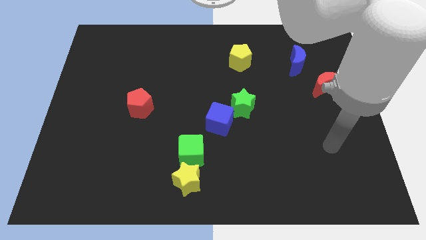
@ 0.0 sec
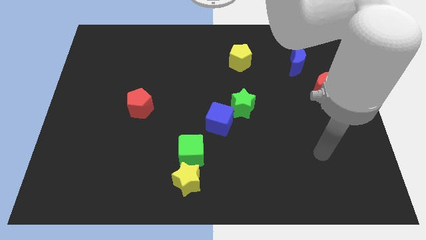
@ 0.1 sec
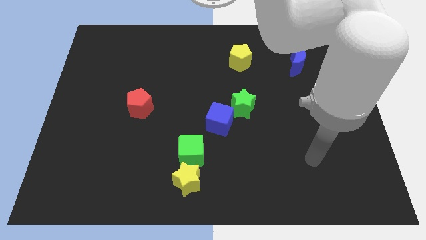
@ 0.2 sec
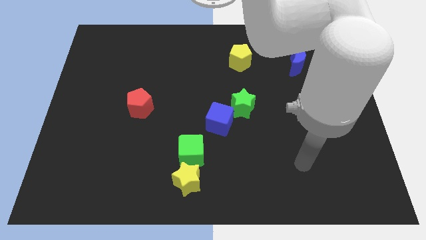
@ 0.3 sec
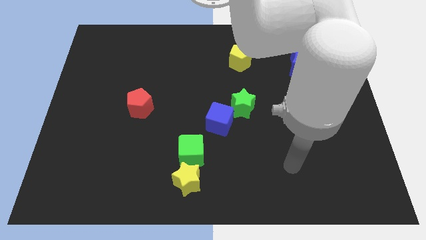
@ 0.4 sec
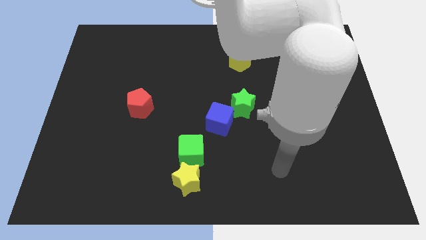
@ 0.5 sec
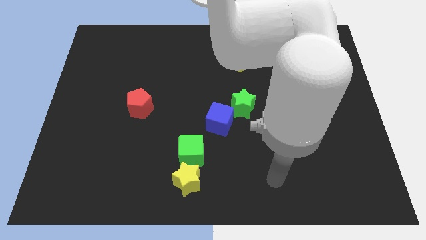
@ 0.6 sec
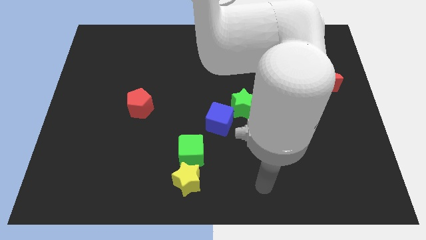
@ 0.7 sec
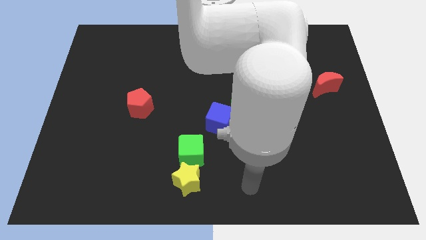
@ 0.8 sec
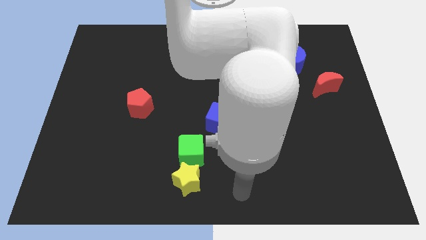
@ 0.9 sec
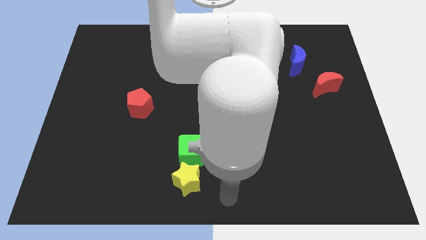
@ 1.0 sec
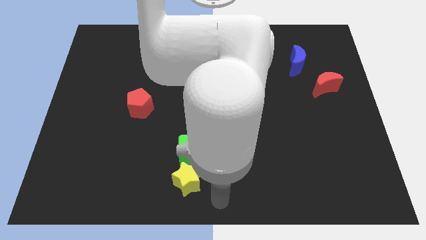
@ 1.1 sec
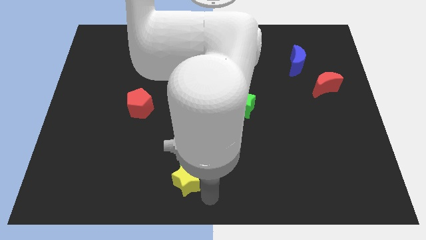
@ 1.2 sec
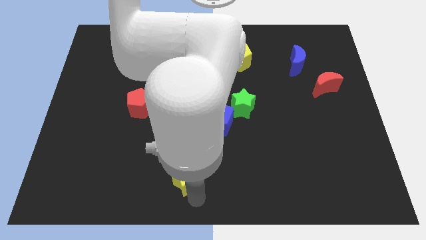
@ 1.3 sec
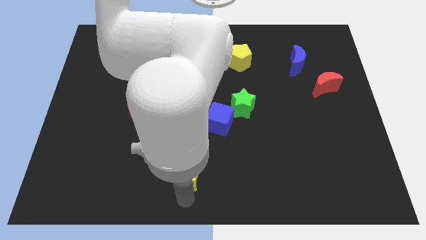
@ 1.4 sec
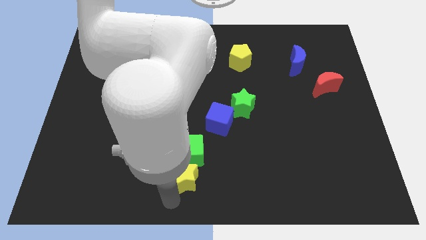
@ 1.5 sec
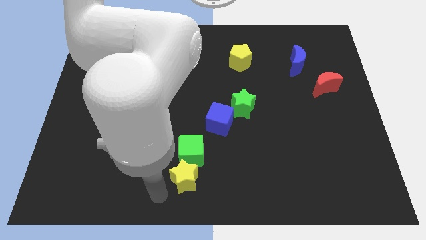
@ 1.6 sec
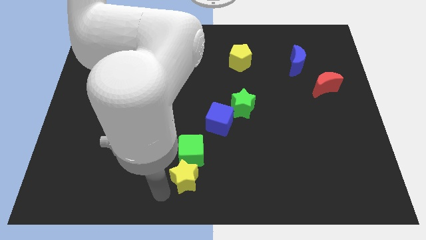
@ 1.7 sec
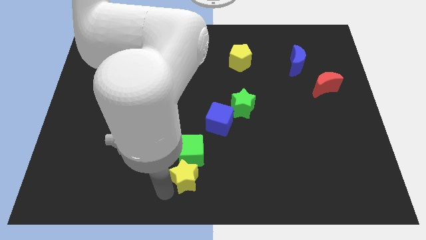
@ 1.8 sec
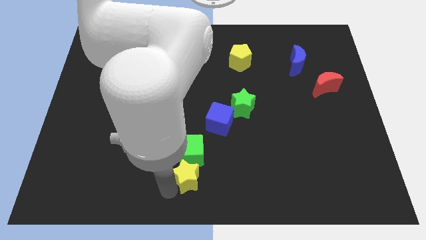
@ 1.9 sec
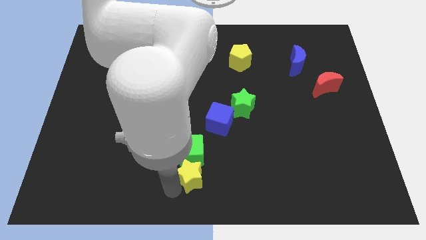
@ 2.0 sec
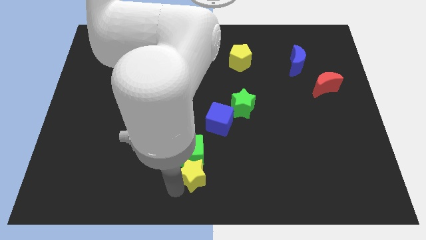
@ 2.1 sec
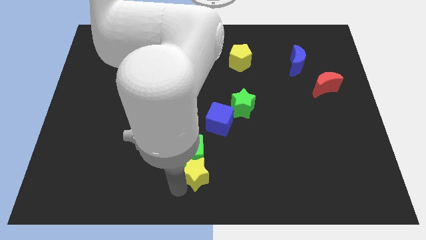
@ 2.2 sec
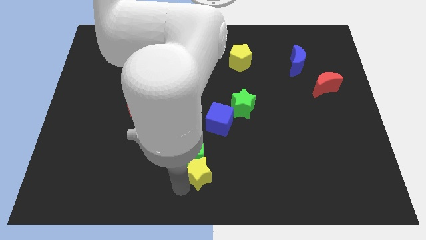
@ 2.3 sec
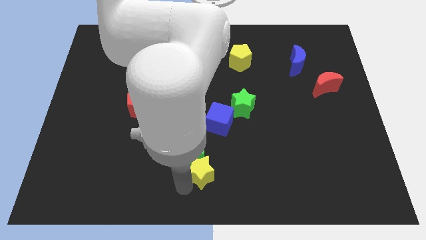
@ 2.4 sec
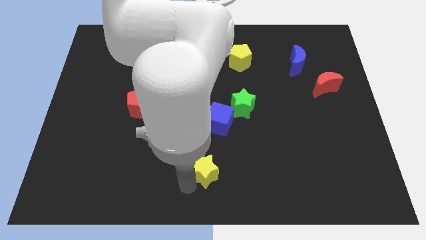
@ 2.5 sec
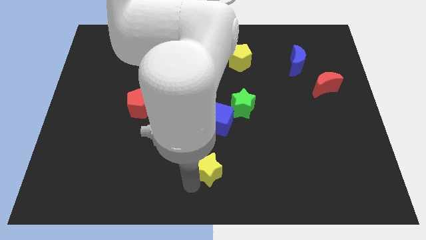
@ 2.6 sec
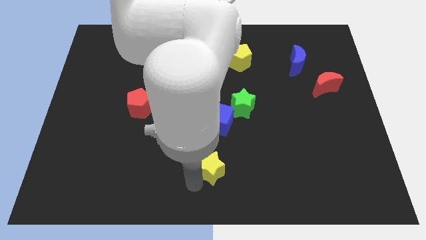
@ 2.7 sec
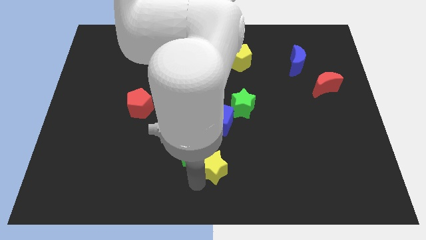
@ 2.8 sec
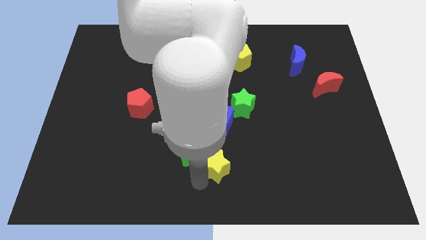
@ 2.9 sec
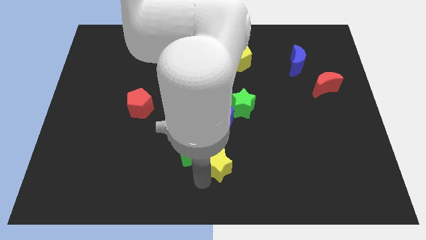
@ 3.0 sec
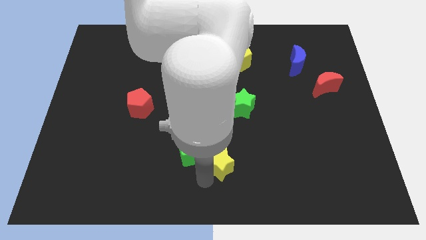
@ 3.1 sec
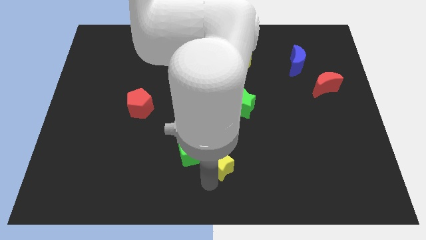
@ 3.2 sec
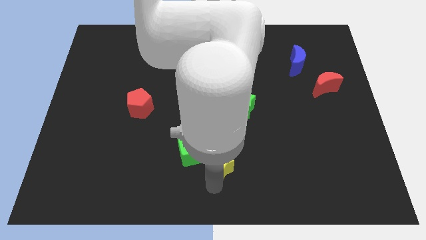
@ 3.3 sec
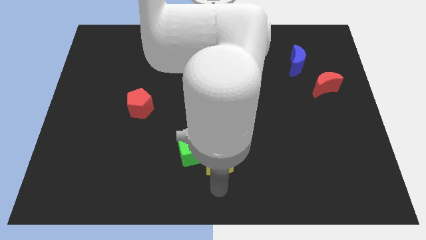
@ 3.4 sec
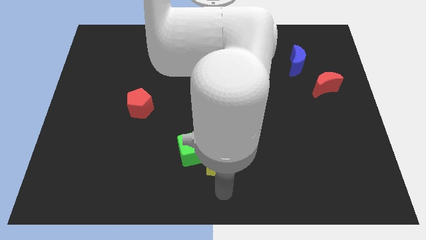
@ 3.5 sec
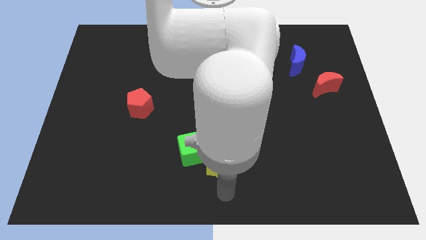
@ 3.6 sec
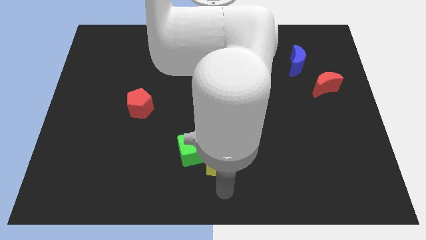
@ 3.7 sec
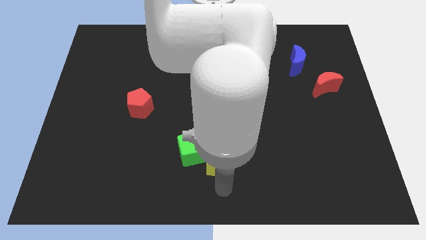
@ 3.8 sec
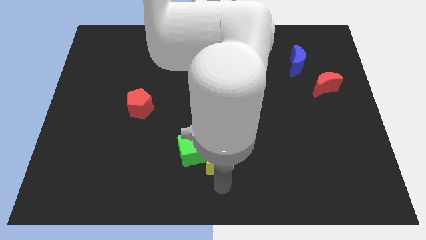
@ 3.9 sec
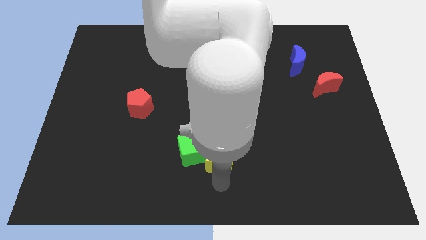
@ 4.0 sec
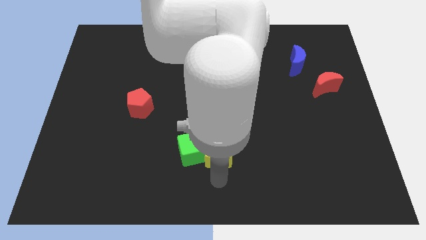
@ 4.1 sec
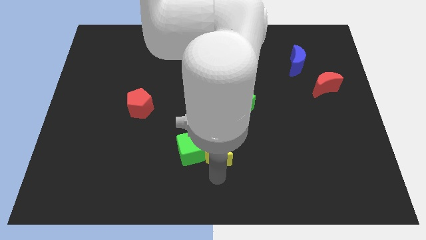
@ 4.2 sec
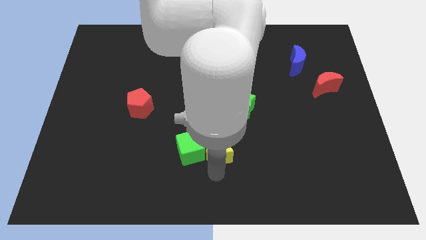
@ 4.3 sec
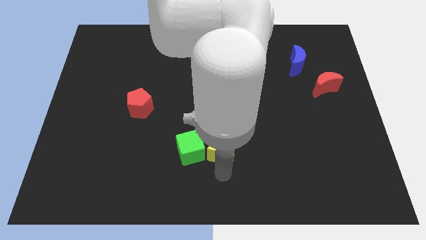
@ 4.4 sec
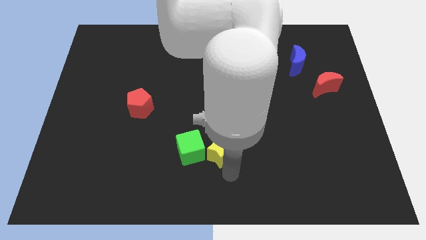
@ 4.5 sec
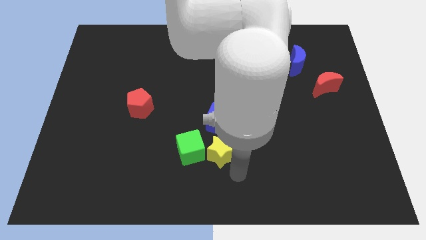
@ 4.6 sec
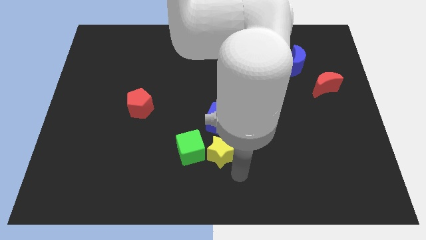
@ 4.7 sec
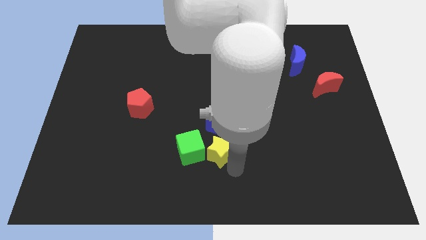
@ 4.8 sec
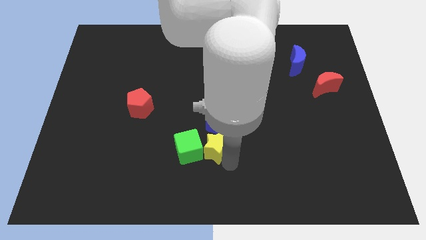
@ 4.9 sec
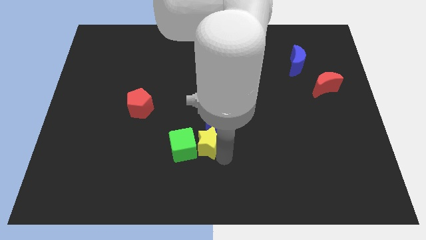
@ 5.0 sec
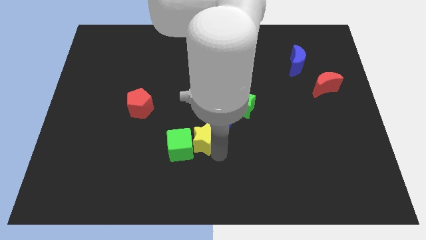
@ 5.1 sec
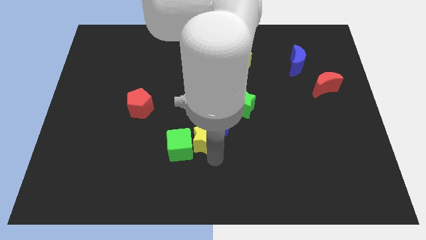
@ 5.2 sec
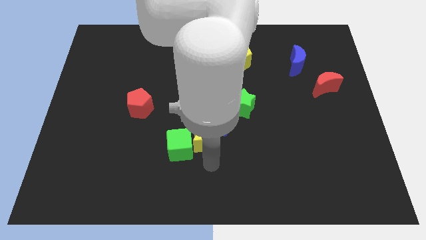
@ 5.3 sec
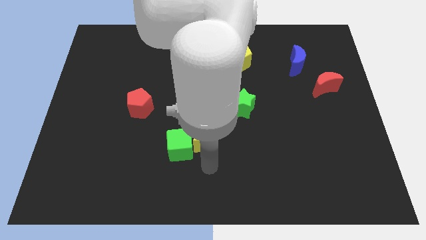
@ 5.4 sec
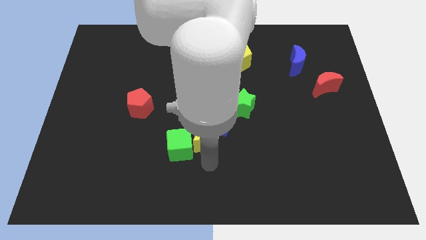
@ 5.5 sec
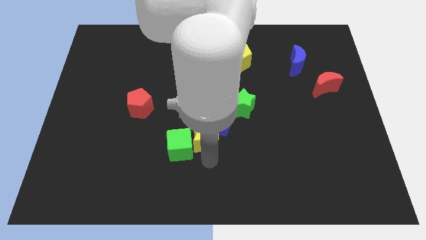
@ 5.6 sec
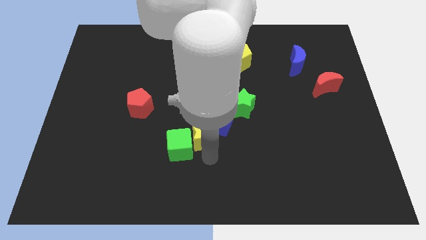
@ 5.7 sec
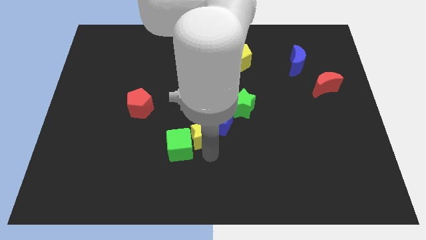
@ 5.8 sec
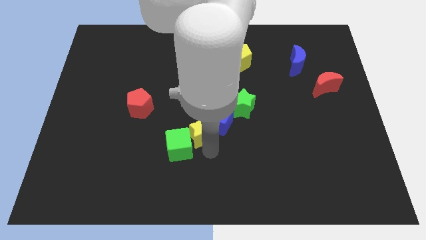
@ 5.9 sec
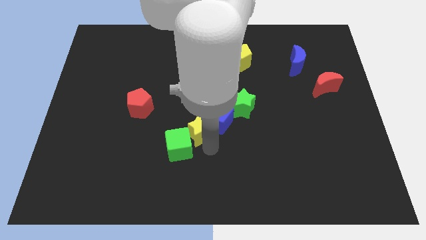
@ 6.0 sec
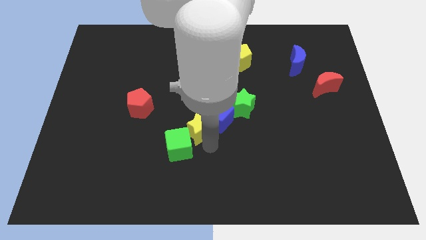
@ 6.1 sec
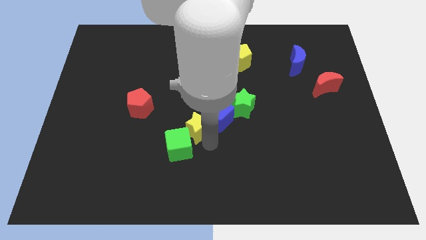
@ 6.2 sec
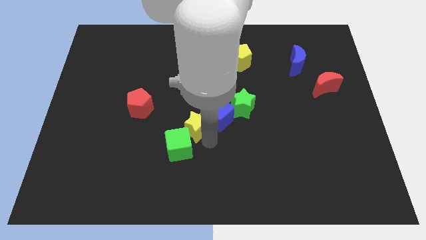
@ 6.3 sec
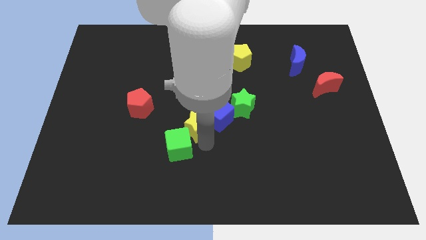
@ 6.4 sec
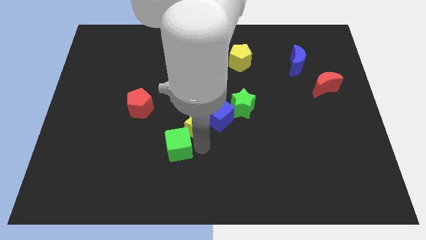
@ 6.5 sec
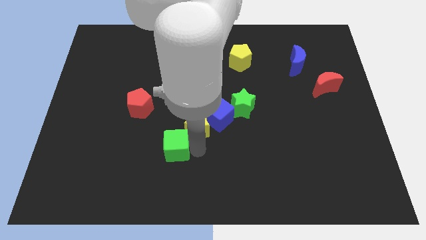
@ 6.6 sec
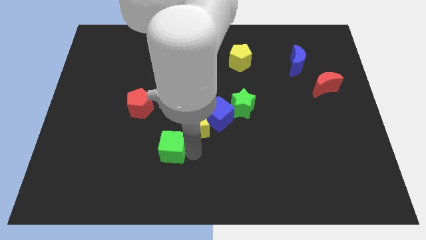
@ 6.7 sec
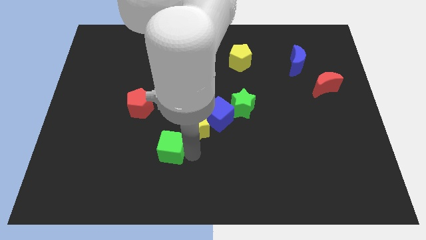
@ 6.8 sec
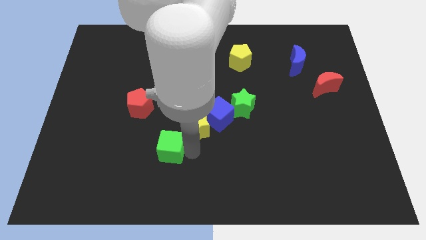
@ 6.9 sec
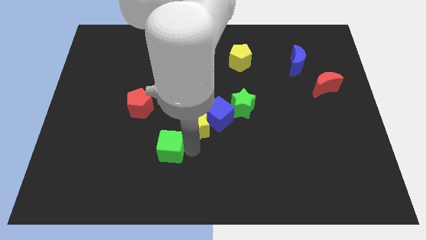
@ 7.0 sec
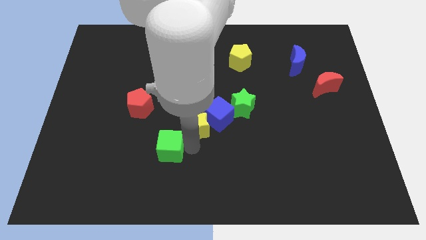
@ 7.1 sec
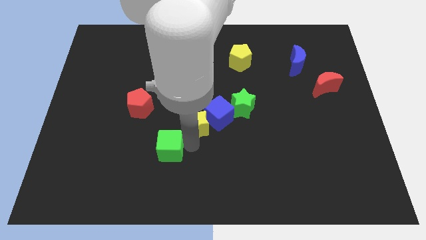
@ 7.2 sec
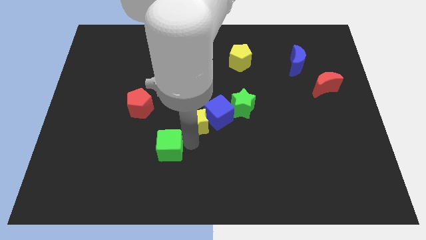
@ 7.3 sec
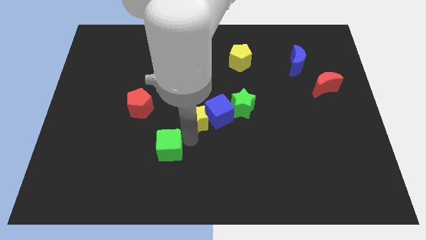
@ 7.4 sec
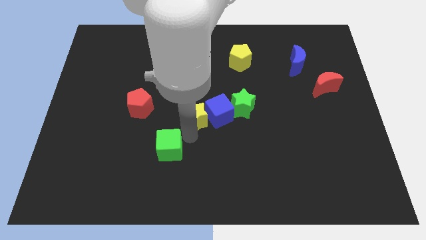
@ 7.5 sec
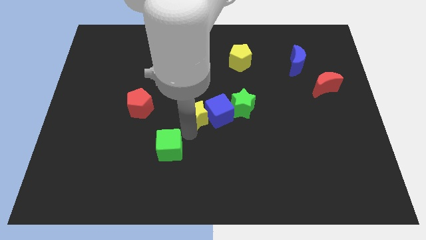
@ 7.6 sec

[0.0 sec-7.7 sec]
put the yellow star to the top left of the blue cube
